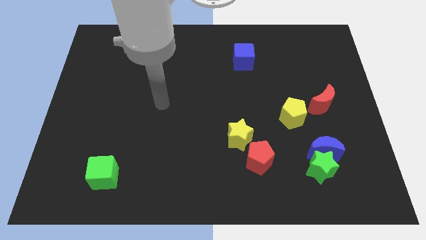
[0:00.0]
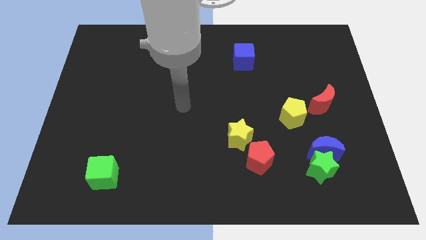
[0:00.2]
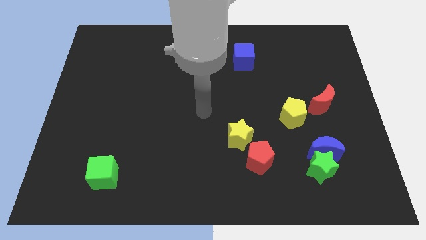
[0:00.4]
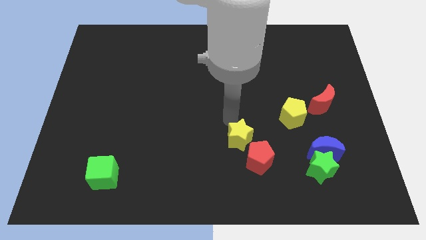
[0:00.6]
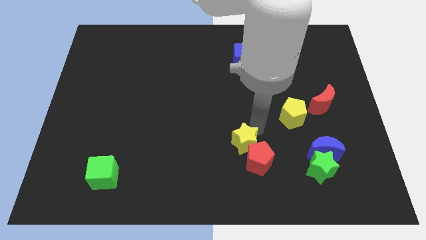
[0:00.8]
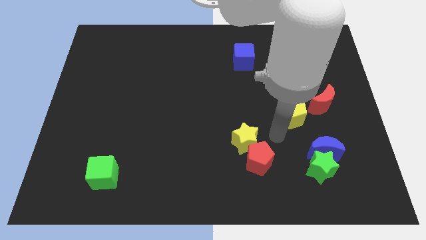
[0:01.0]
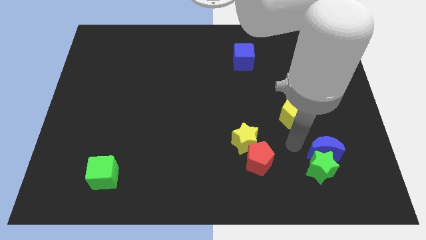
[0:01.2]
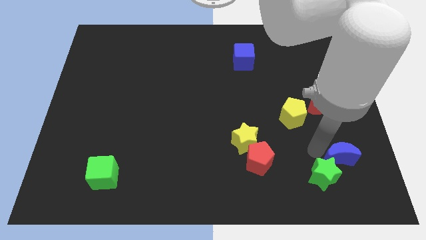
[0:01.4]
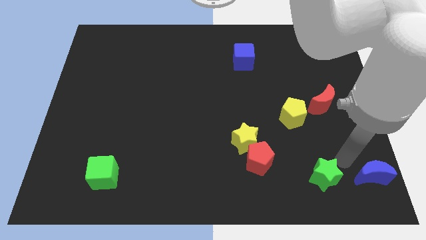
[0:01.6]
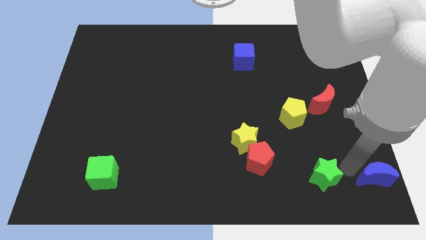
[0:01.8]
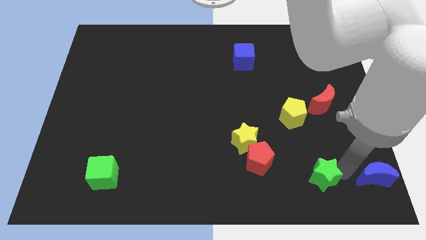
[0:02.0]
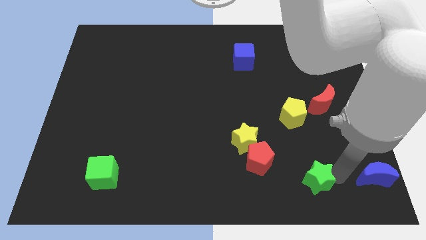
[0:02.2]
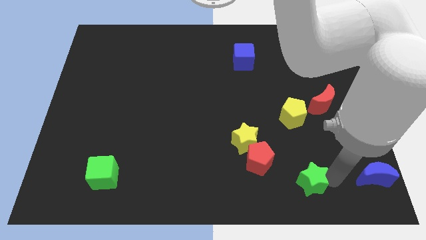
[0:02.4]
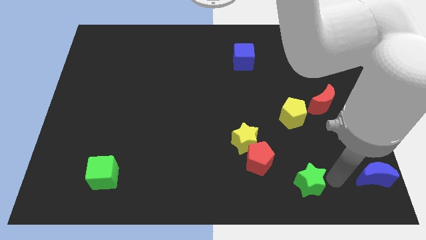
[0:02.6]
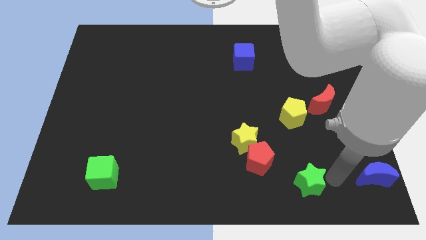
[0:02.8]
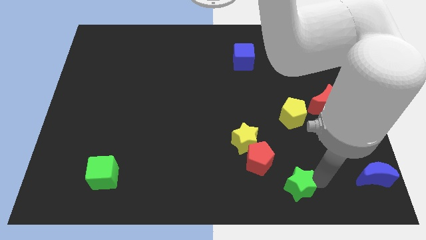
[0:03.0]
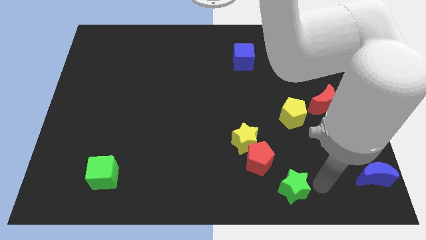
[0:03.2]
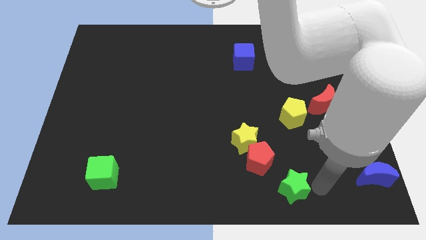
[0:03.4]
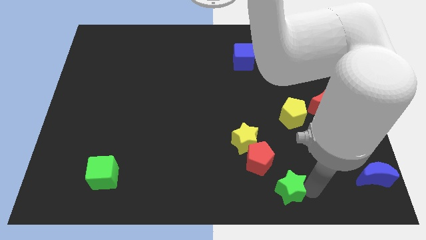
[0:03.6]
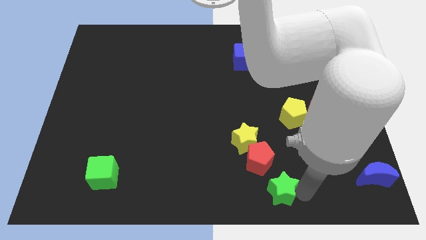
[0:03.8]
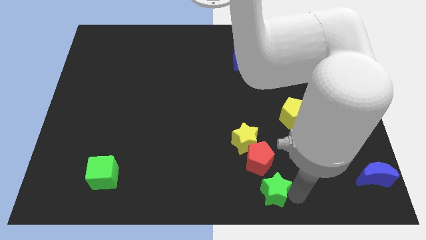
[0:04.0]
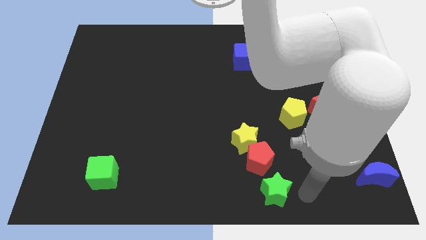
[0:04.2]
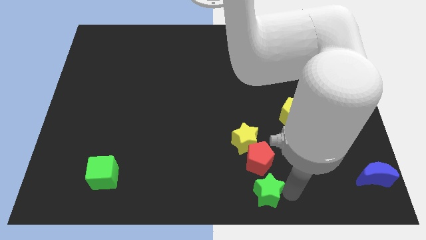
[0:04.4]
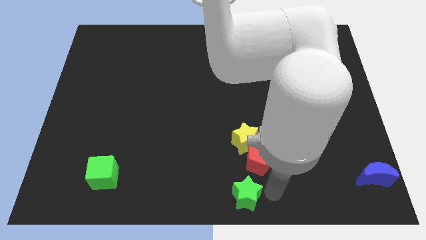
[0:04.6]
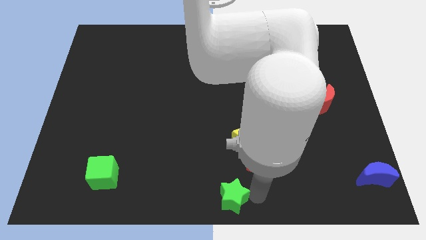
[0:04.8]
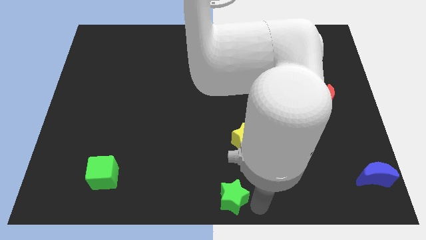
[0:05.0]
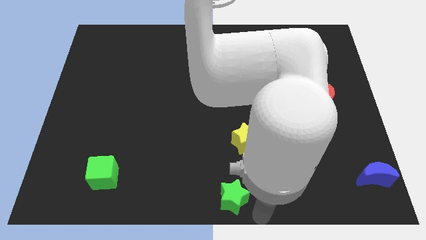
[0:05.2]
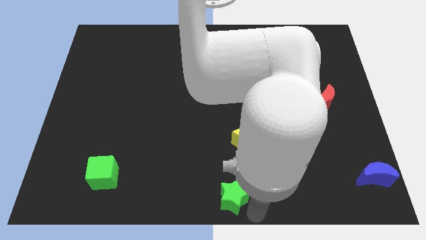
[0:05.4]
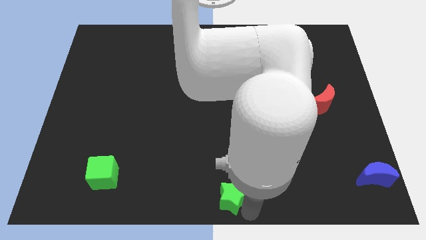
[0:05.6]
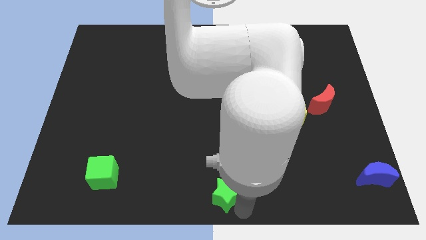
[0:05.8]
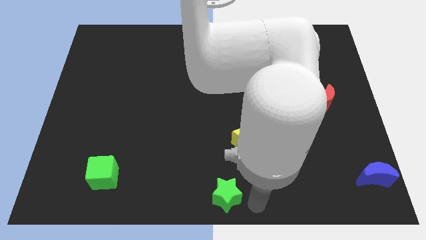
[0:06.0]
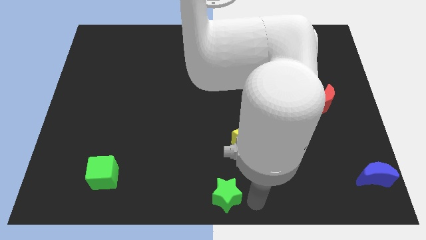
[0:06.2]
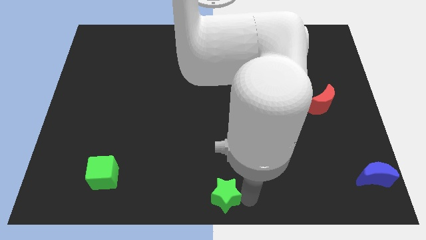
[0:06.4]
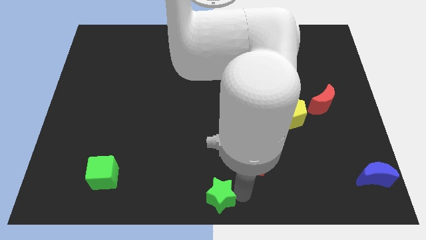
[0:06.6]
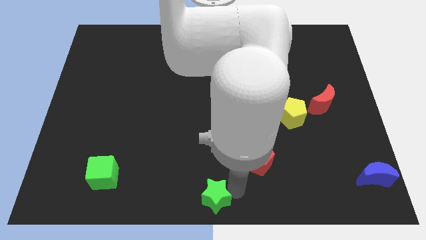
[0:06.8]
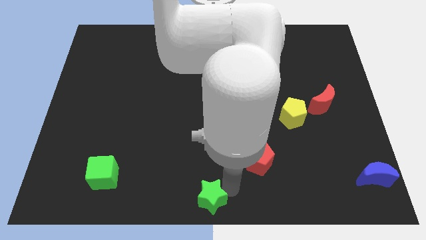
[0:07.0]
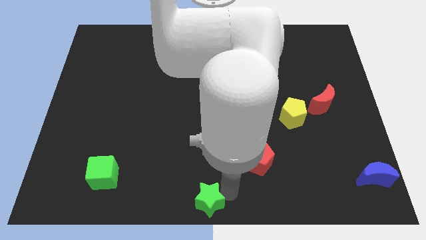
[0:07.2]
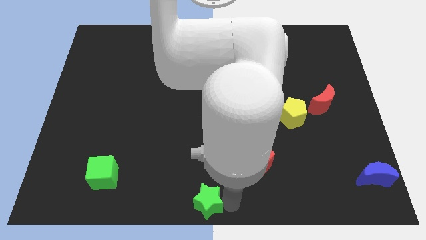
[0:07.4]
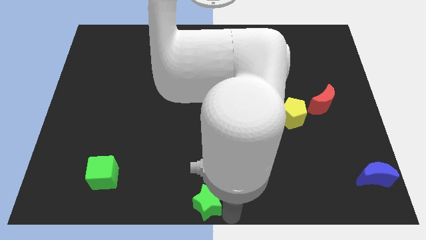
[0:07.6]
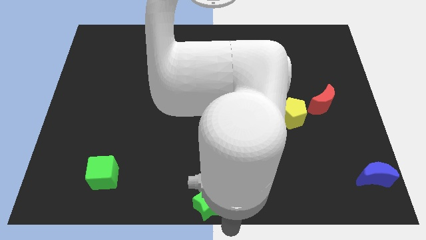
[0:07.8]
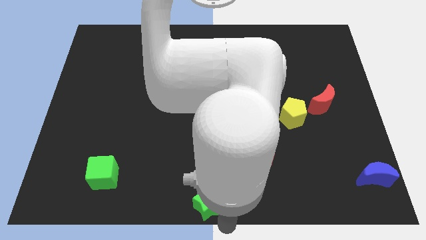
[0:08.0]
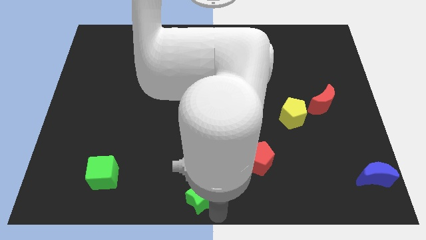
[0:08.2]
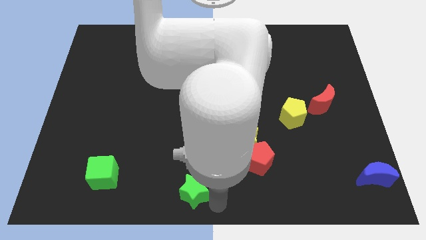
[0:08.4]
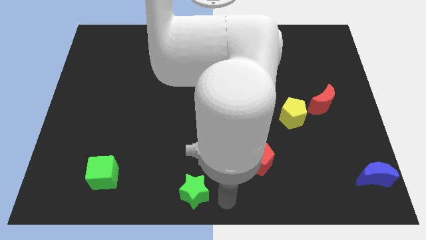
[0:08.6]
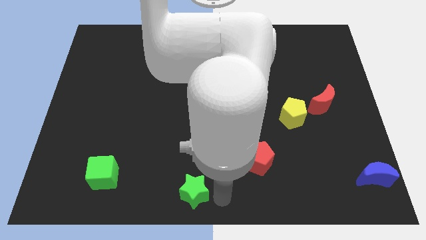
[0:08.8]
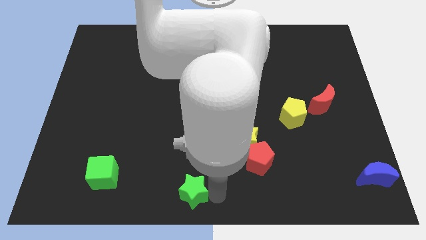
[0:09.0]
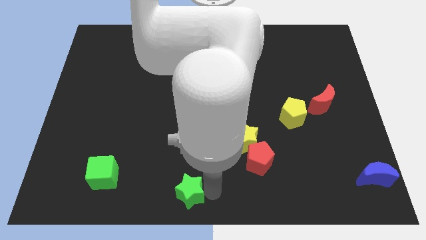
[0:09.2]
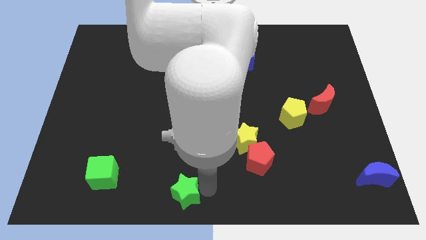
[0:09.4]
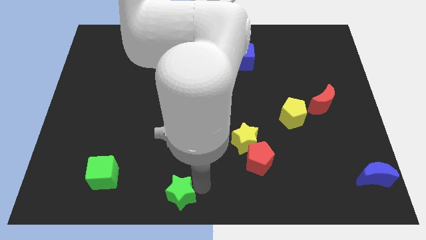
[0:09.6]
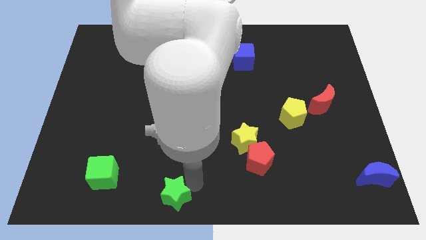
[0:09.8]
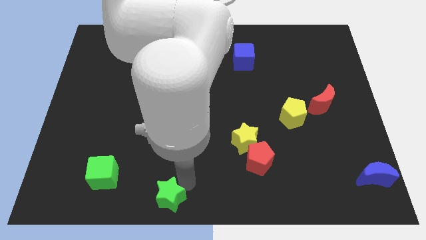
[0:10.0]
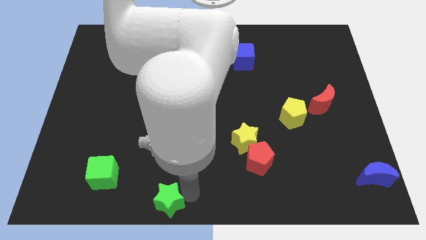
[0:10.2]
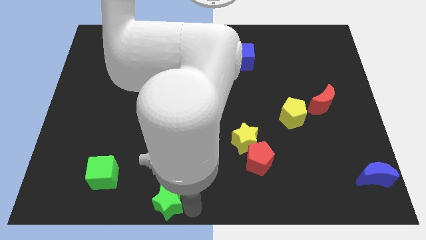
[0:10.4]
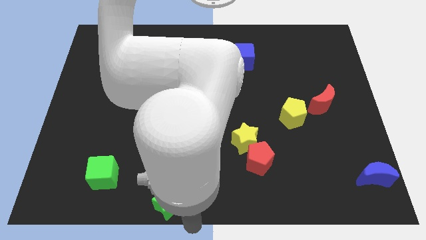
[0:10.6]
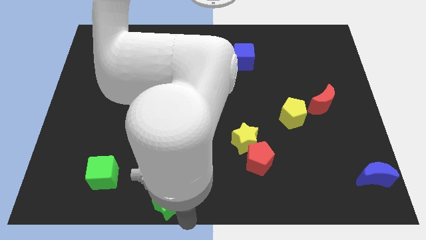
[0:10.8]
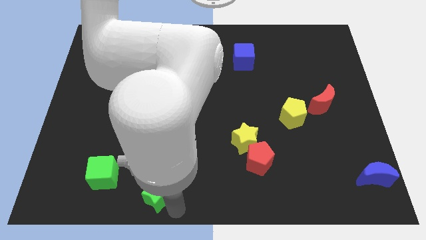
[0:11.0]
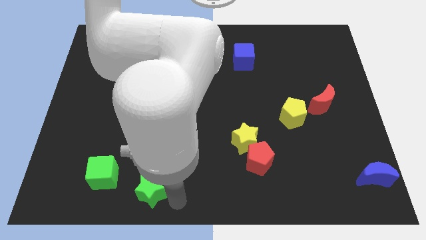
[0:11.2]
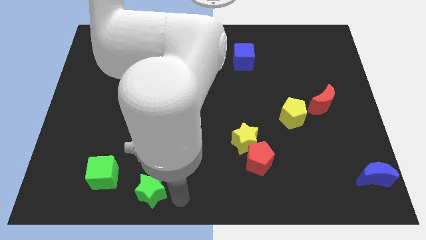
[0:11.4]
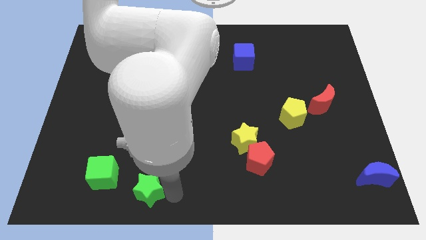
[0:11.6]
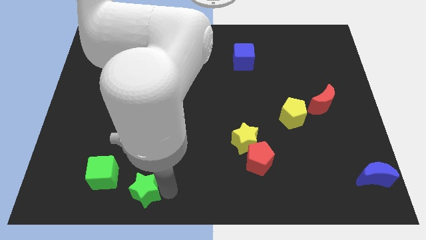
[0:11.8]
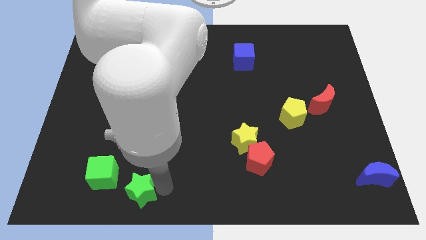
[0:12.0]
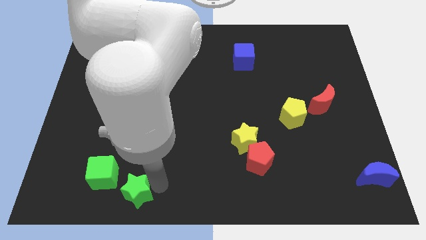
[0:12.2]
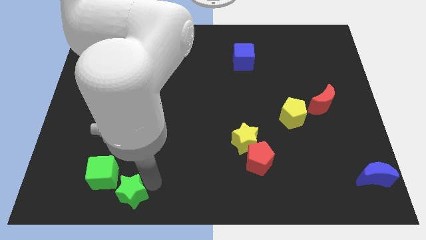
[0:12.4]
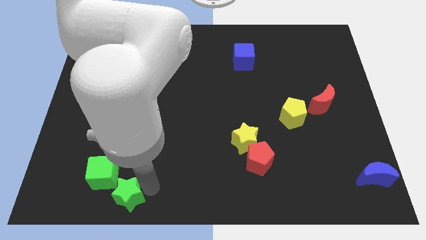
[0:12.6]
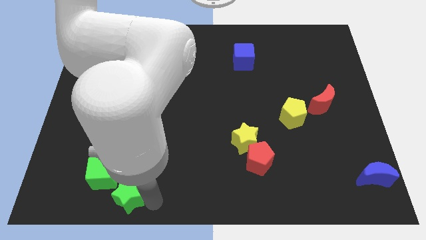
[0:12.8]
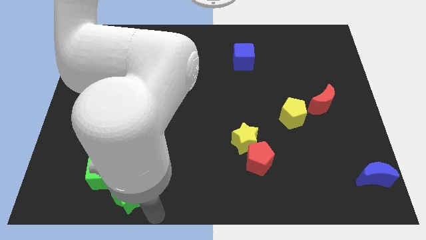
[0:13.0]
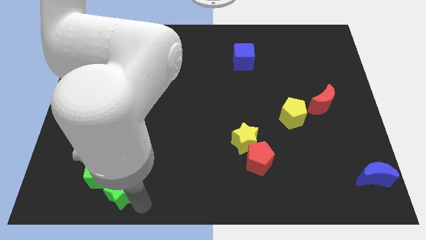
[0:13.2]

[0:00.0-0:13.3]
push the green star to the green cube

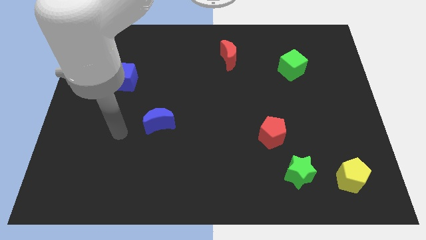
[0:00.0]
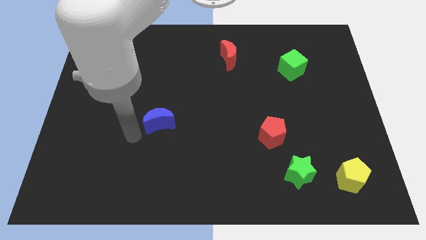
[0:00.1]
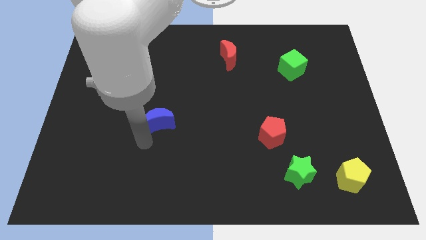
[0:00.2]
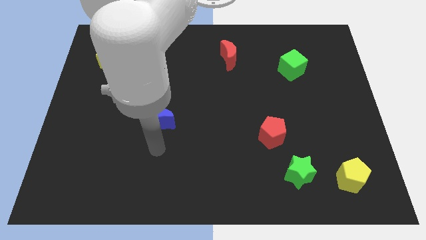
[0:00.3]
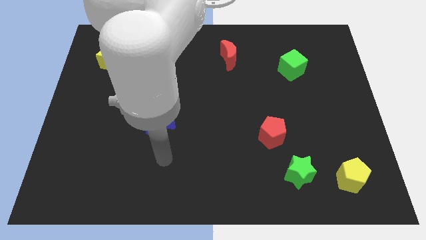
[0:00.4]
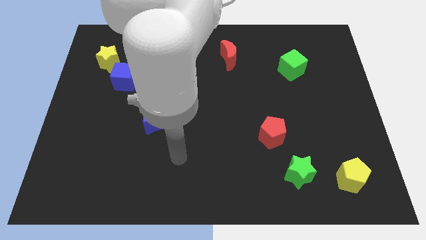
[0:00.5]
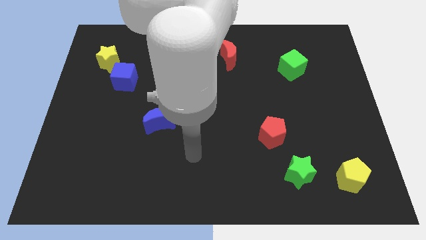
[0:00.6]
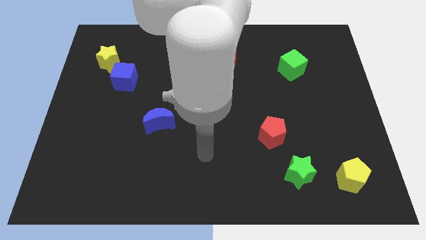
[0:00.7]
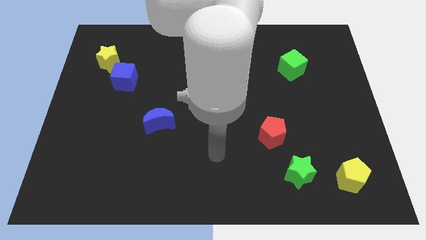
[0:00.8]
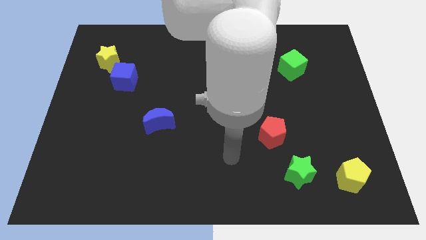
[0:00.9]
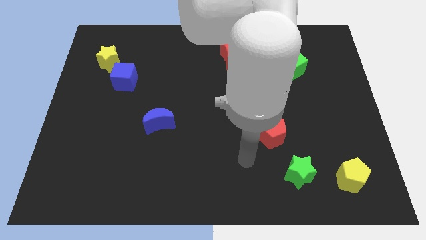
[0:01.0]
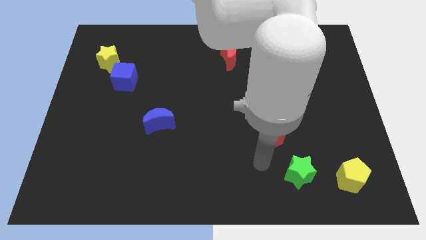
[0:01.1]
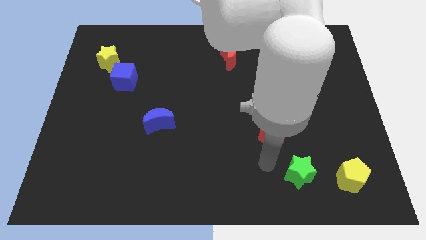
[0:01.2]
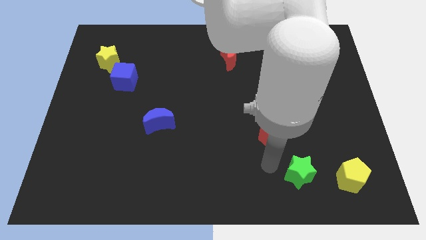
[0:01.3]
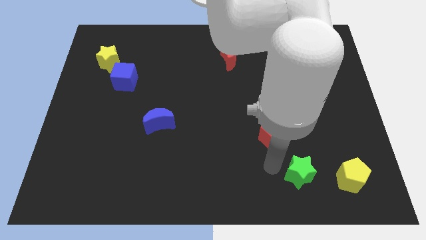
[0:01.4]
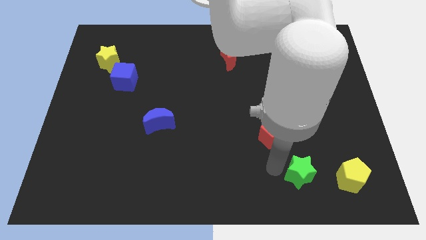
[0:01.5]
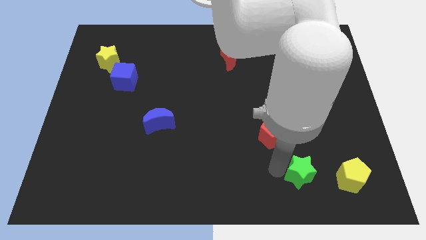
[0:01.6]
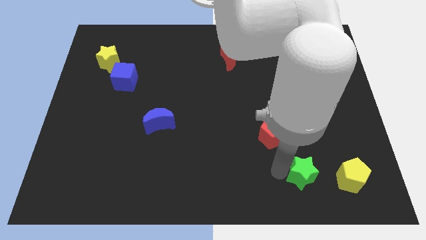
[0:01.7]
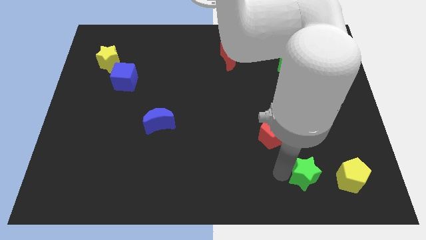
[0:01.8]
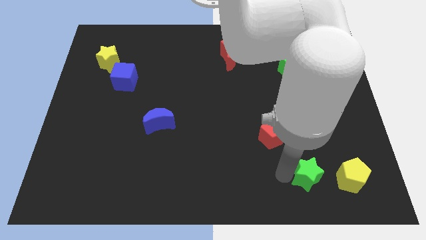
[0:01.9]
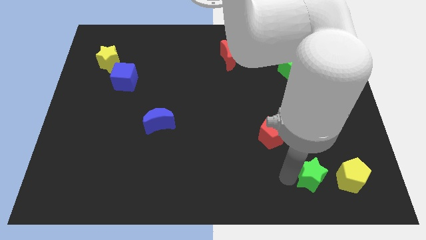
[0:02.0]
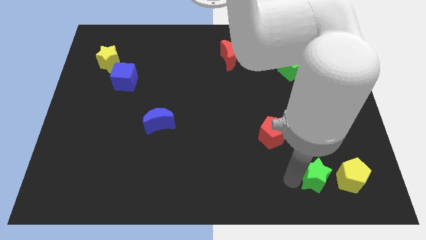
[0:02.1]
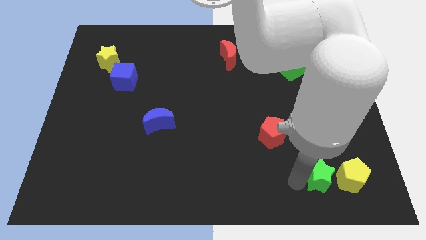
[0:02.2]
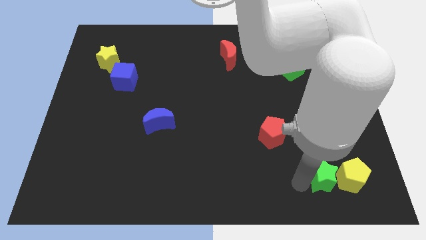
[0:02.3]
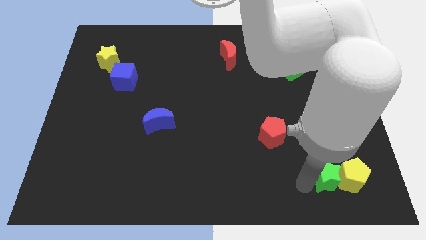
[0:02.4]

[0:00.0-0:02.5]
slide the green star next to the yellow pentagon
